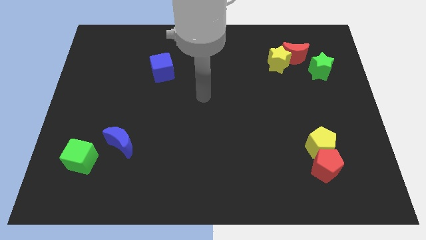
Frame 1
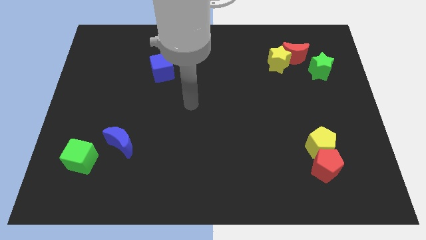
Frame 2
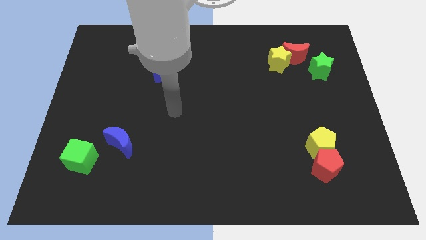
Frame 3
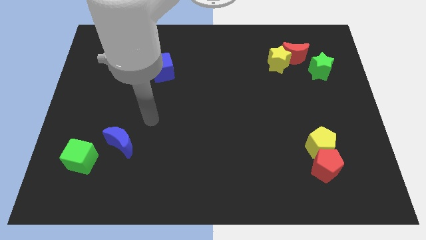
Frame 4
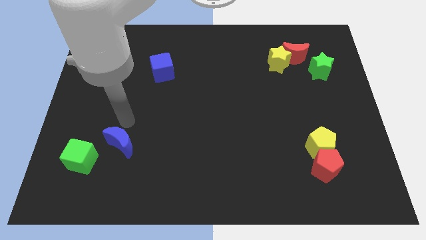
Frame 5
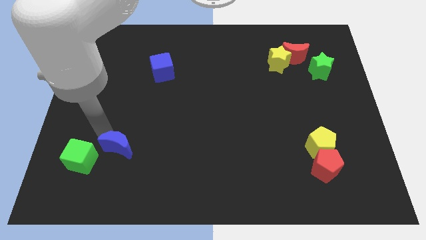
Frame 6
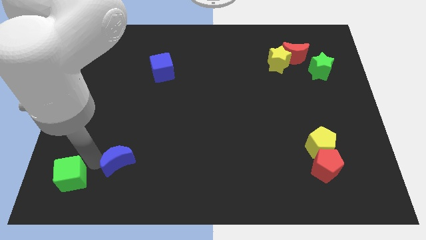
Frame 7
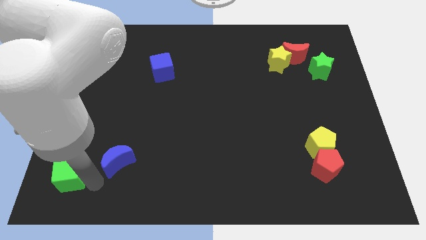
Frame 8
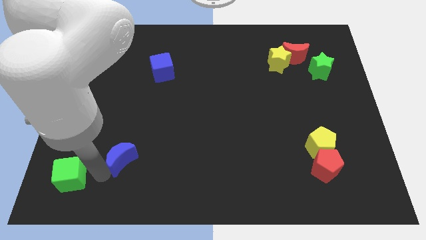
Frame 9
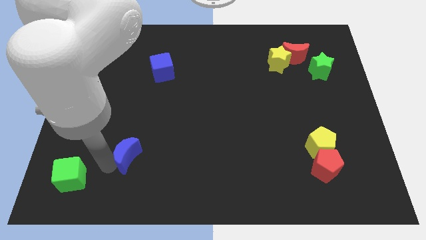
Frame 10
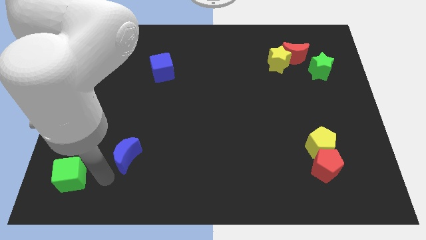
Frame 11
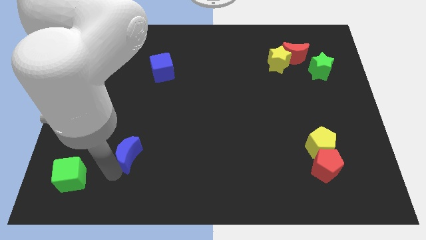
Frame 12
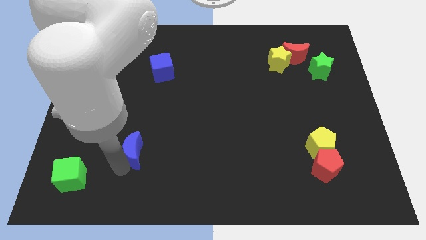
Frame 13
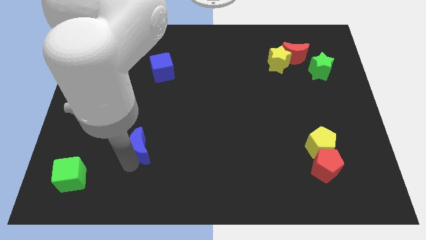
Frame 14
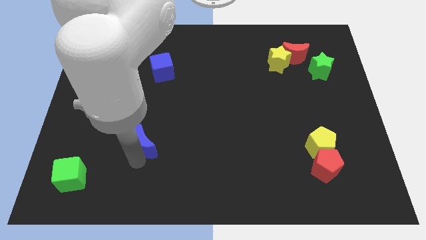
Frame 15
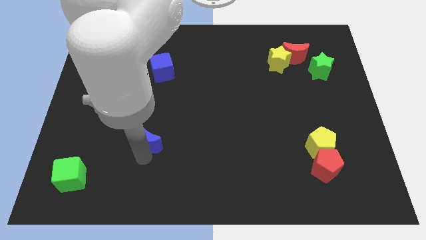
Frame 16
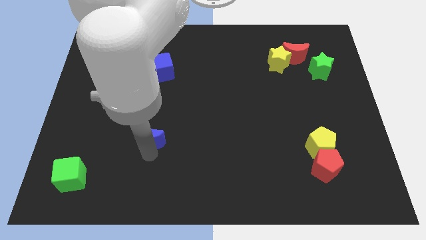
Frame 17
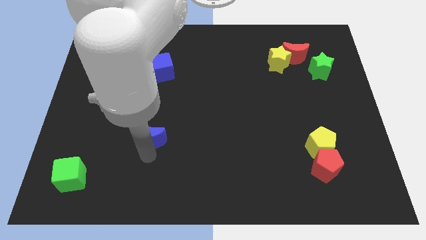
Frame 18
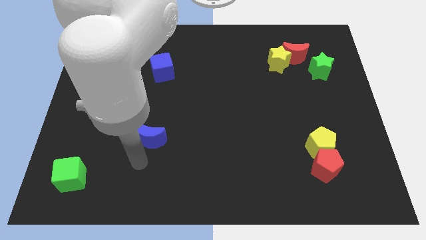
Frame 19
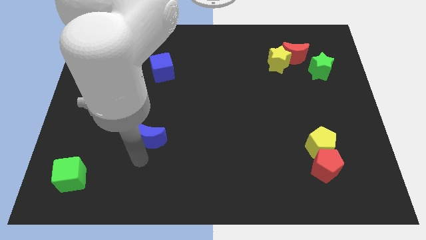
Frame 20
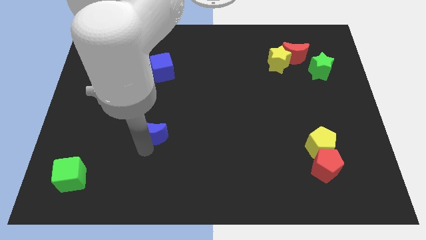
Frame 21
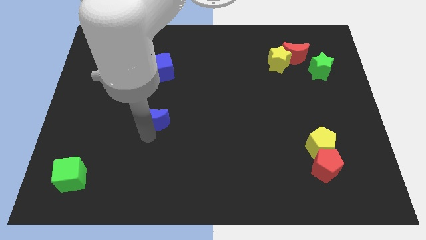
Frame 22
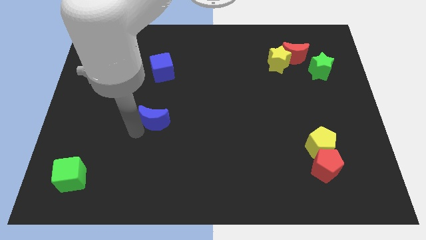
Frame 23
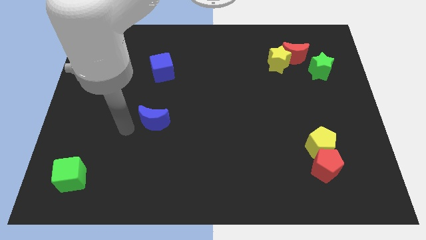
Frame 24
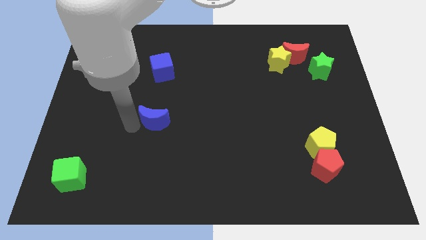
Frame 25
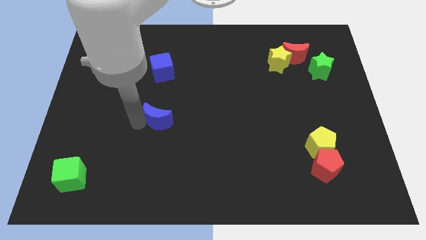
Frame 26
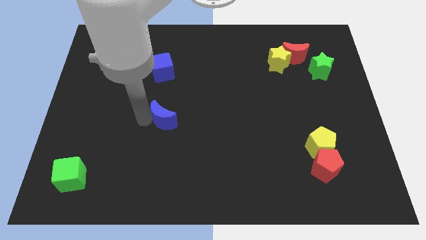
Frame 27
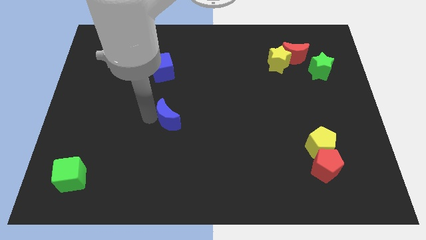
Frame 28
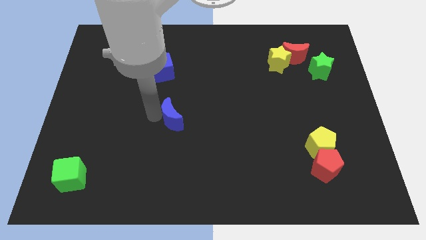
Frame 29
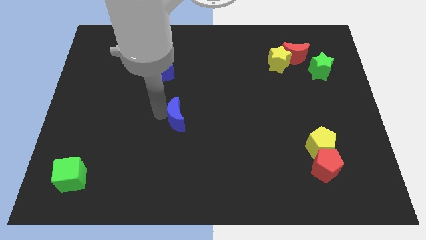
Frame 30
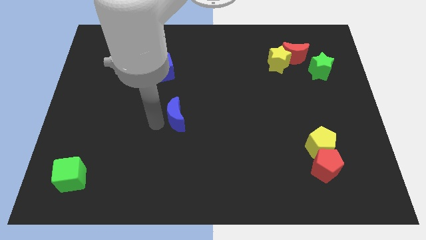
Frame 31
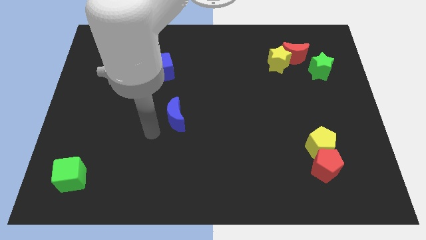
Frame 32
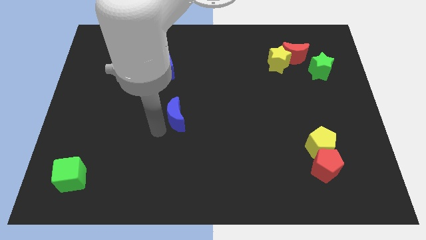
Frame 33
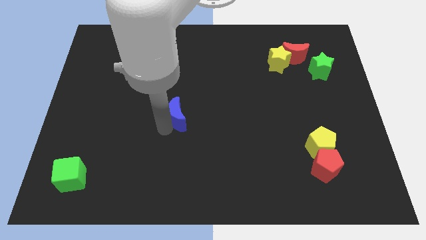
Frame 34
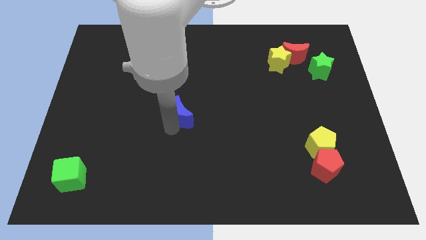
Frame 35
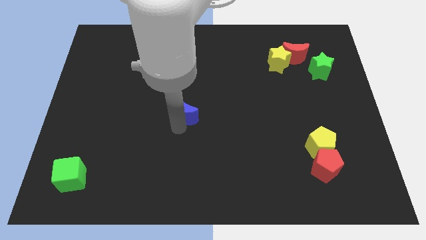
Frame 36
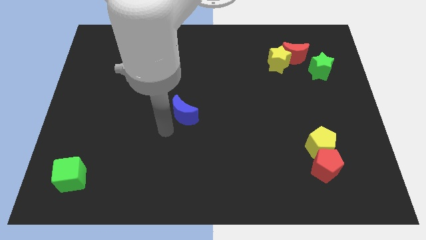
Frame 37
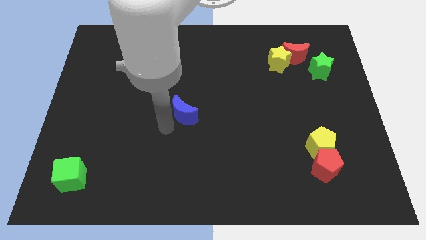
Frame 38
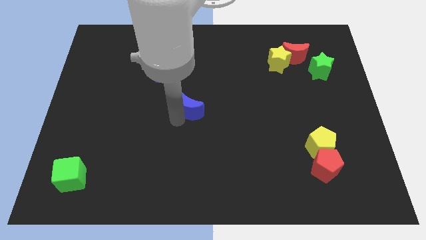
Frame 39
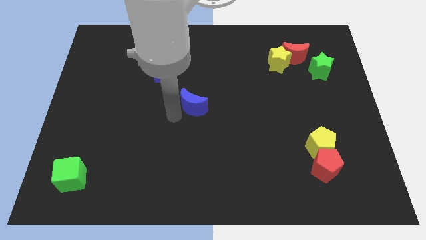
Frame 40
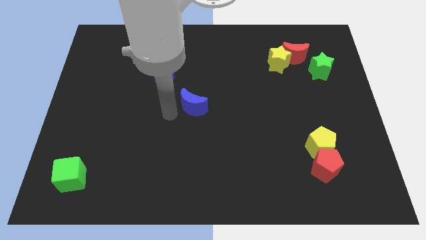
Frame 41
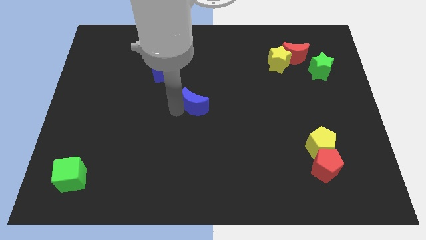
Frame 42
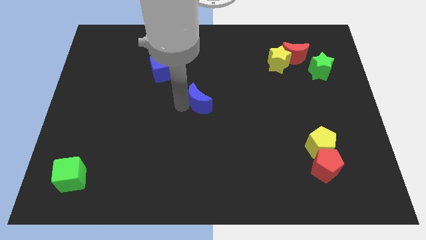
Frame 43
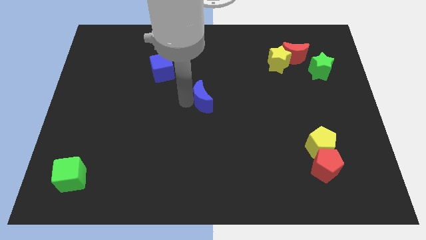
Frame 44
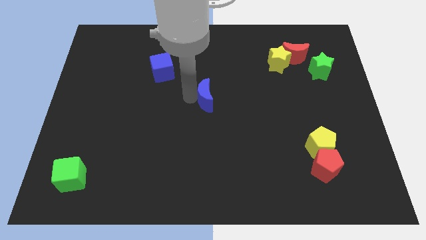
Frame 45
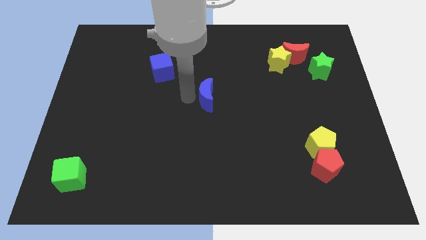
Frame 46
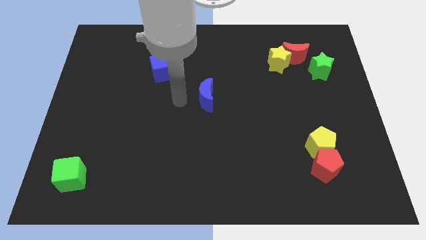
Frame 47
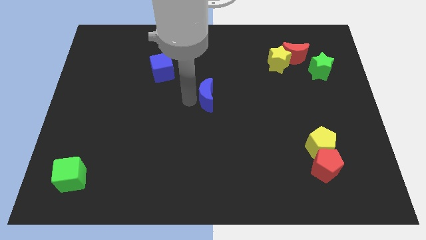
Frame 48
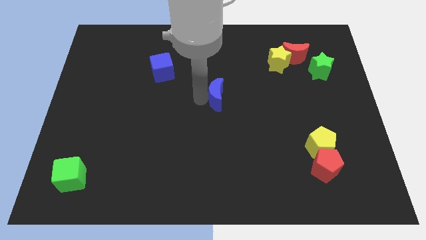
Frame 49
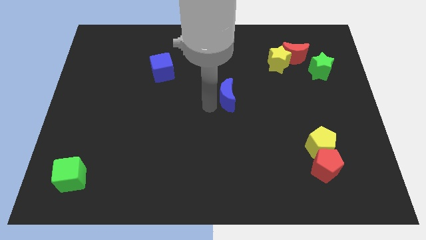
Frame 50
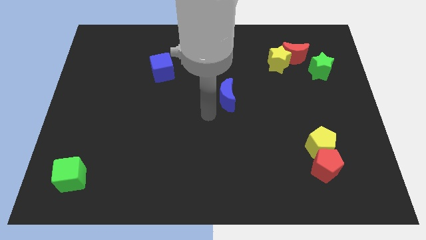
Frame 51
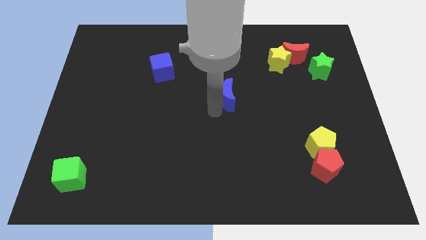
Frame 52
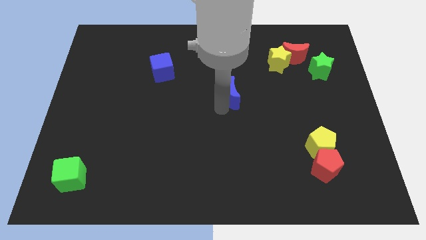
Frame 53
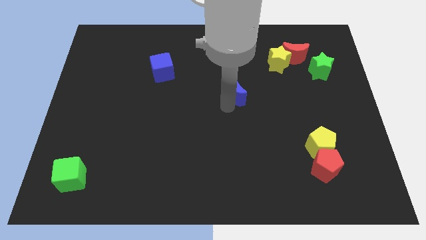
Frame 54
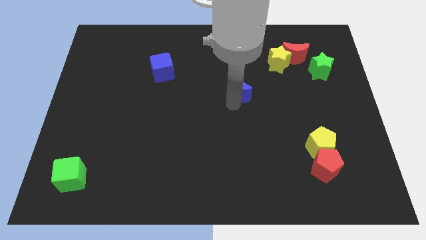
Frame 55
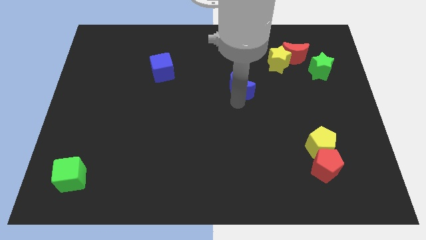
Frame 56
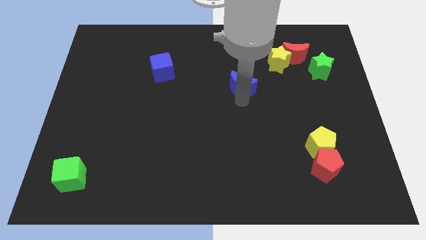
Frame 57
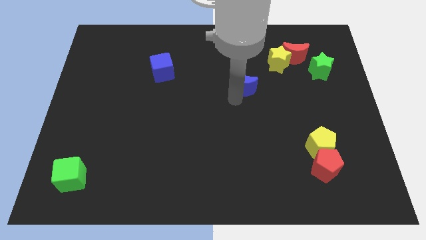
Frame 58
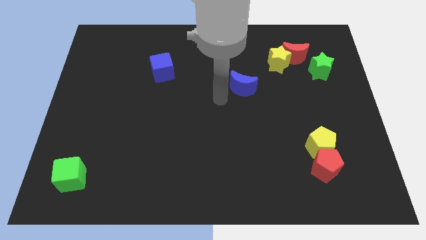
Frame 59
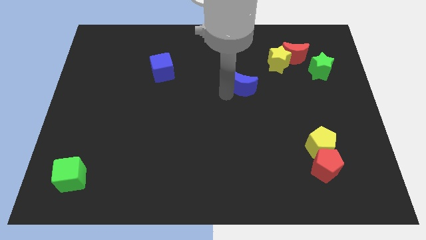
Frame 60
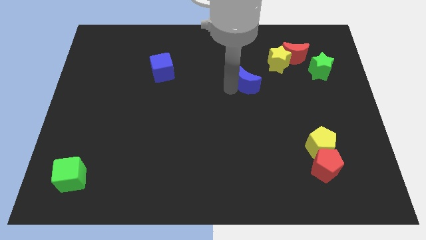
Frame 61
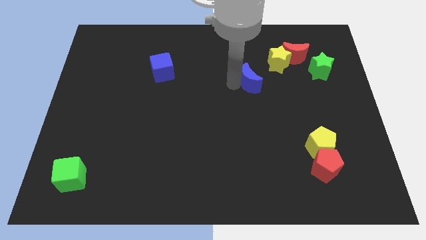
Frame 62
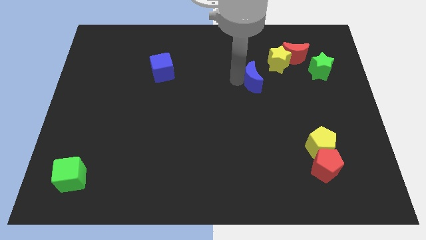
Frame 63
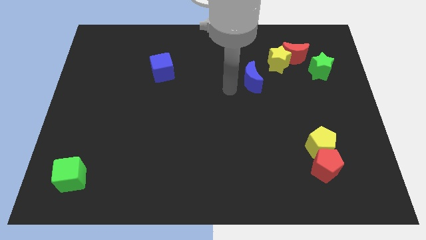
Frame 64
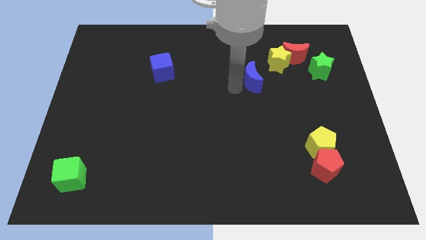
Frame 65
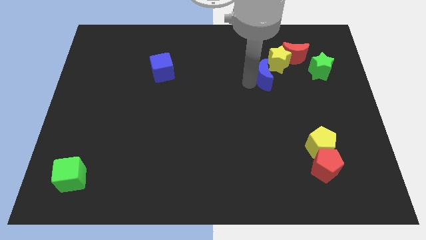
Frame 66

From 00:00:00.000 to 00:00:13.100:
push the blue moon to the left side of the green star

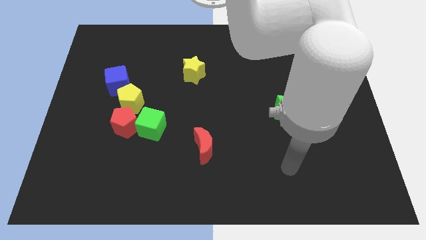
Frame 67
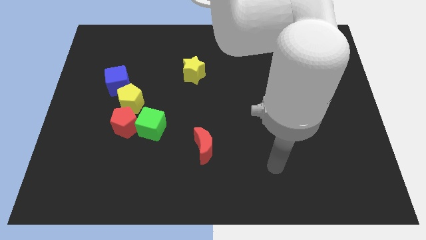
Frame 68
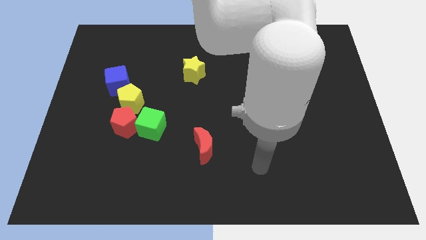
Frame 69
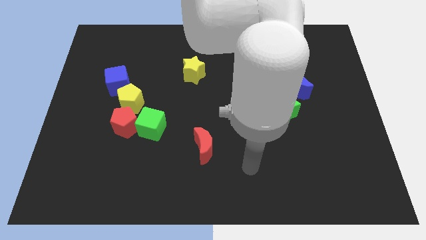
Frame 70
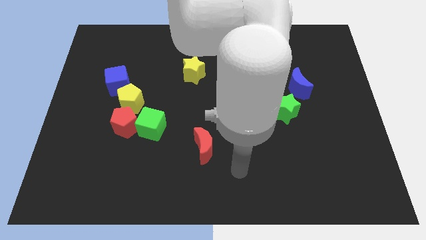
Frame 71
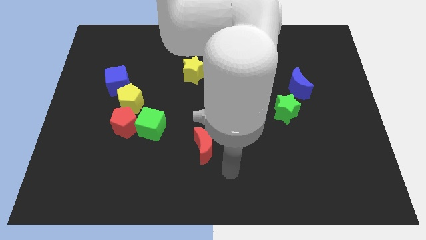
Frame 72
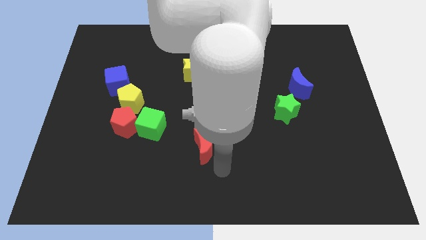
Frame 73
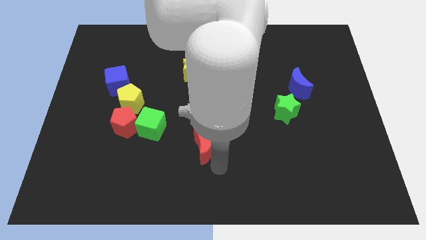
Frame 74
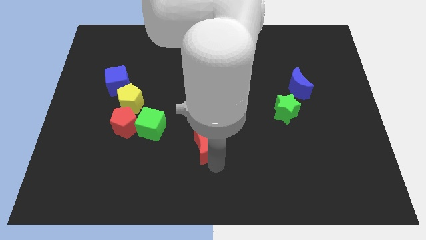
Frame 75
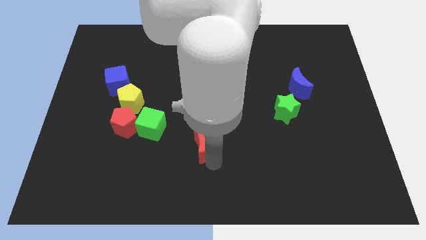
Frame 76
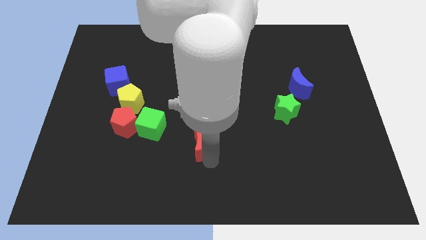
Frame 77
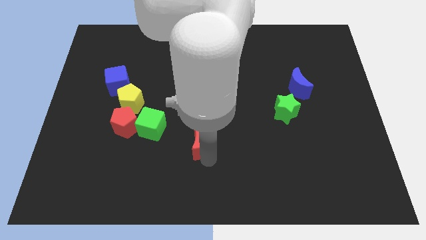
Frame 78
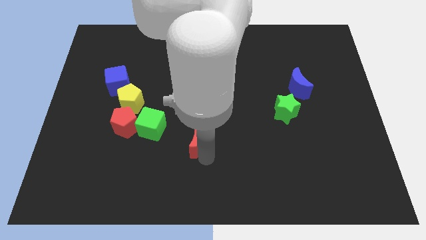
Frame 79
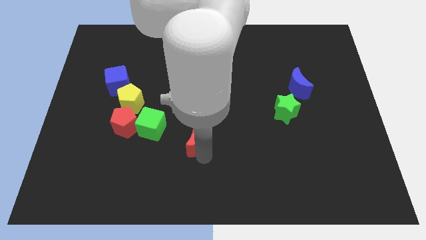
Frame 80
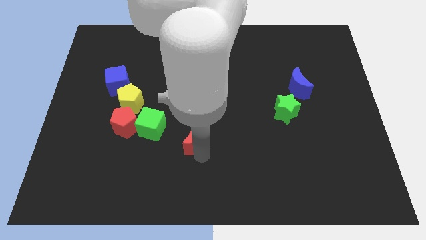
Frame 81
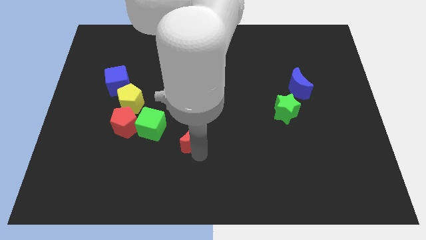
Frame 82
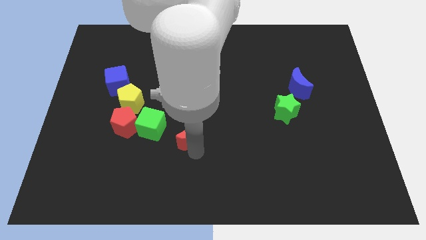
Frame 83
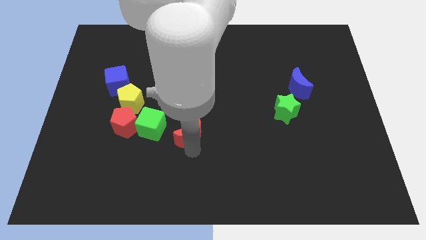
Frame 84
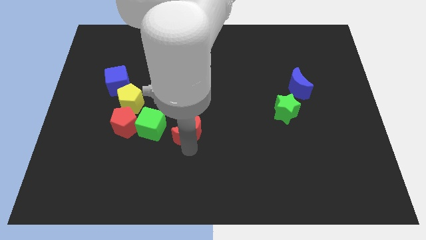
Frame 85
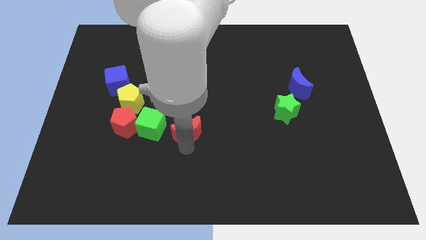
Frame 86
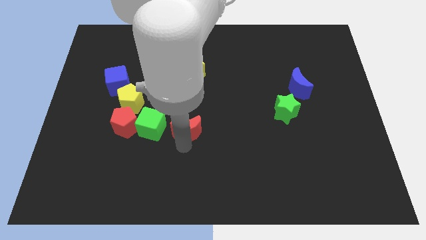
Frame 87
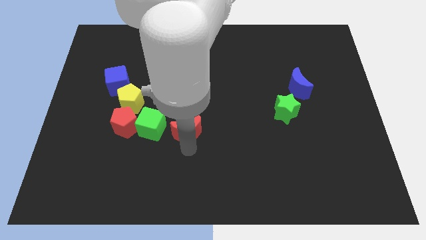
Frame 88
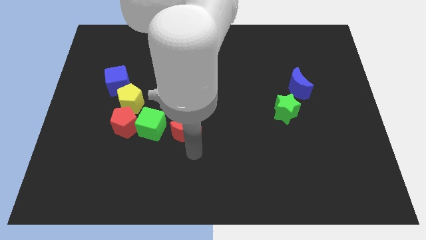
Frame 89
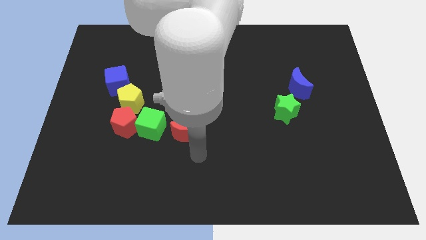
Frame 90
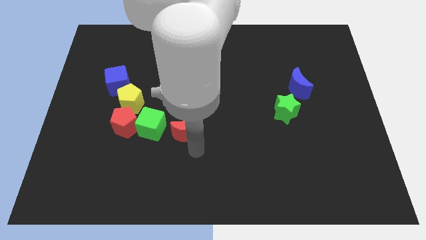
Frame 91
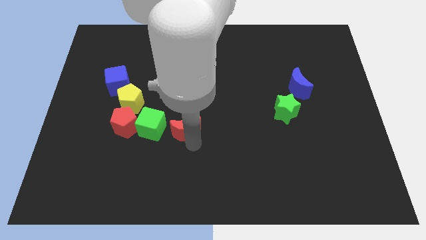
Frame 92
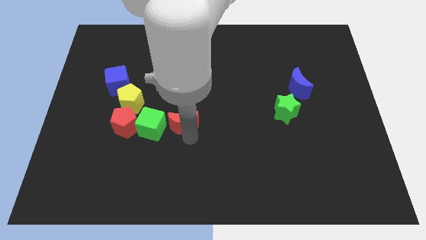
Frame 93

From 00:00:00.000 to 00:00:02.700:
move the red moon to the top right of the green cube
